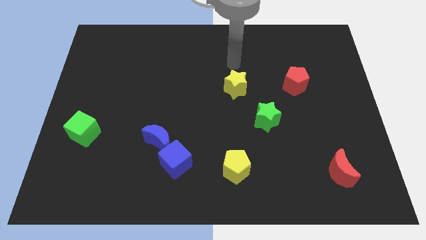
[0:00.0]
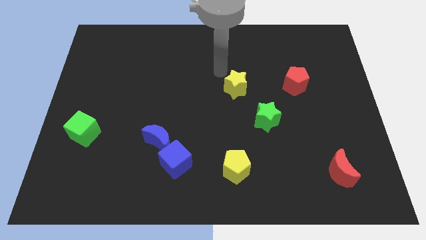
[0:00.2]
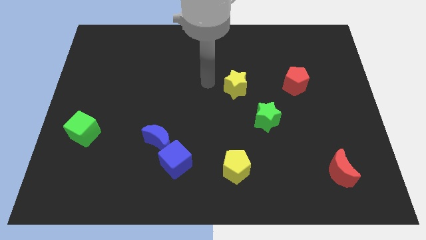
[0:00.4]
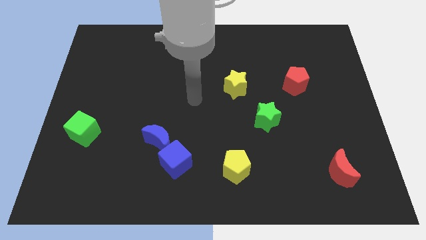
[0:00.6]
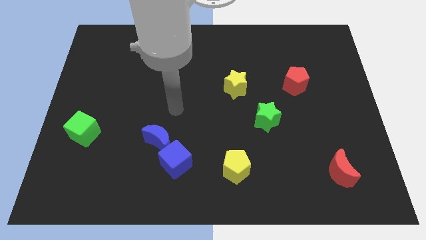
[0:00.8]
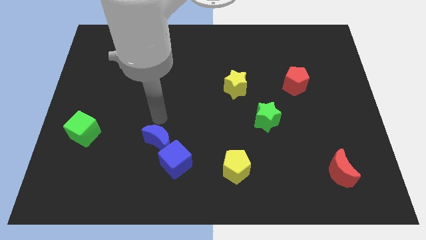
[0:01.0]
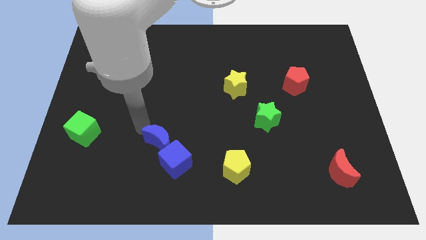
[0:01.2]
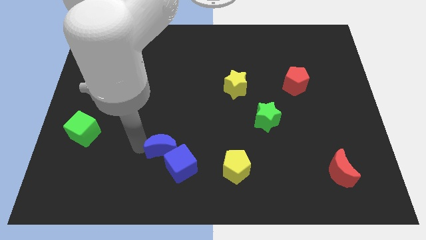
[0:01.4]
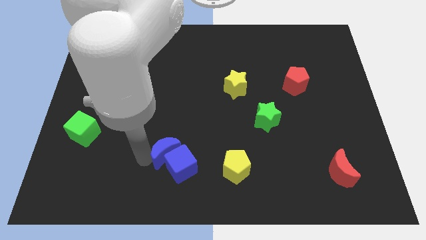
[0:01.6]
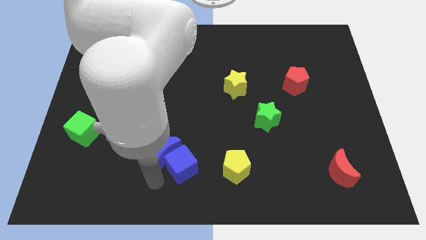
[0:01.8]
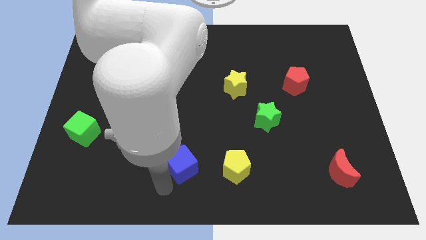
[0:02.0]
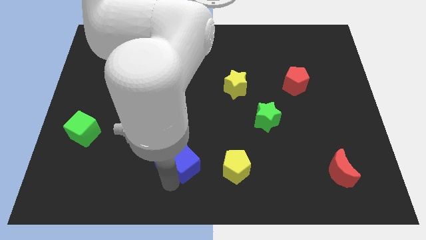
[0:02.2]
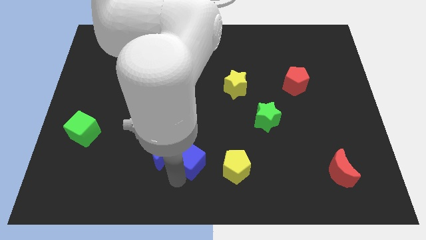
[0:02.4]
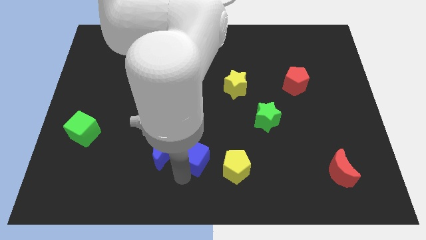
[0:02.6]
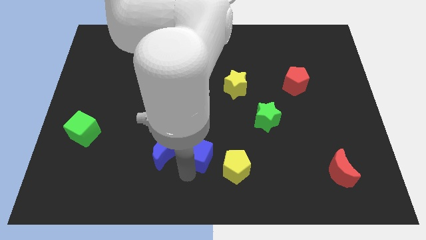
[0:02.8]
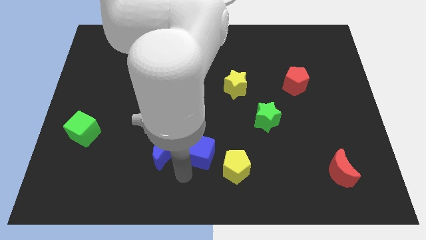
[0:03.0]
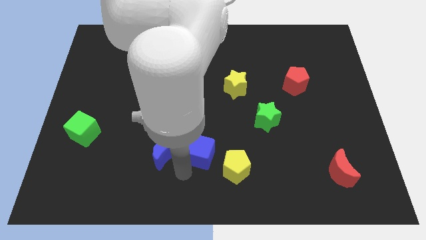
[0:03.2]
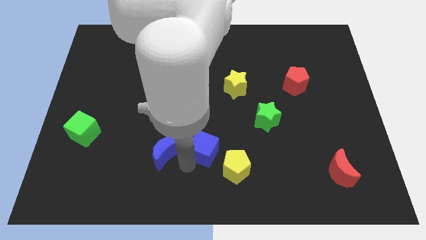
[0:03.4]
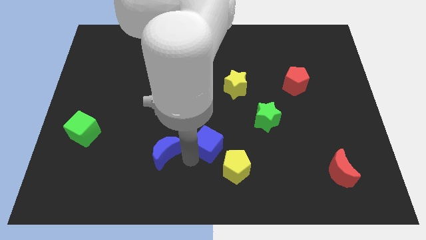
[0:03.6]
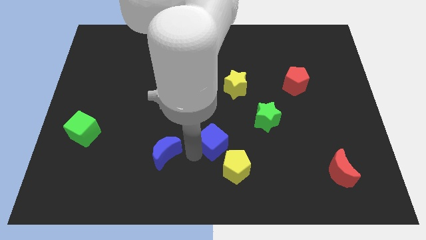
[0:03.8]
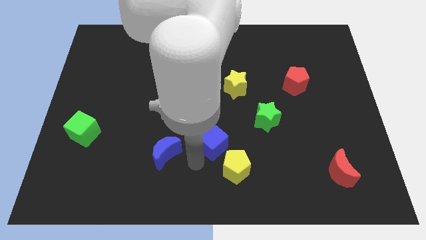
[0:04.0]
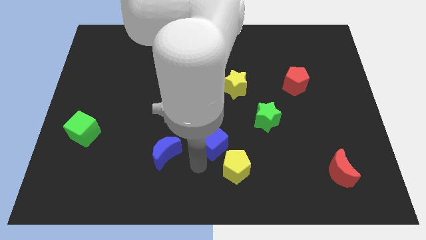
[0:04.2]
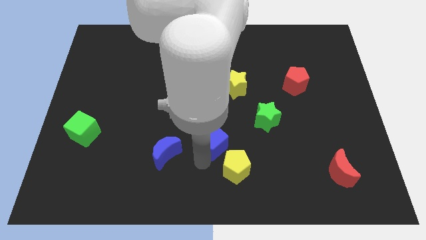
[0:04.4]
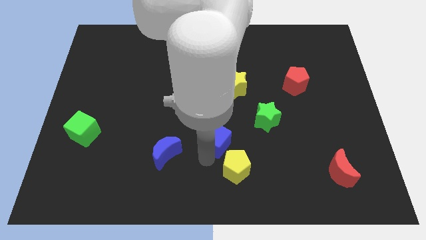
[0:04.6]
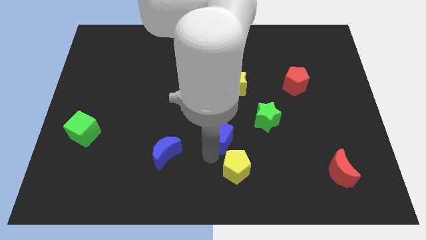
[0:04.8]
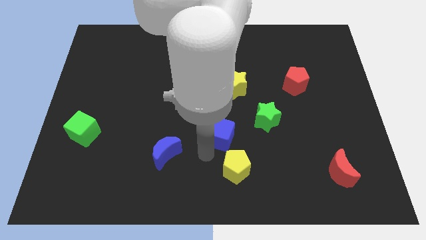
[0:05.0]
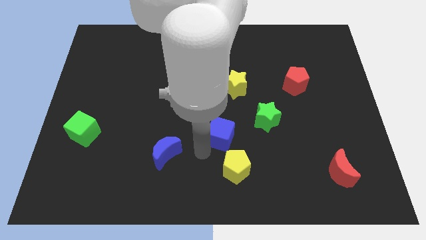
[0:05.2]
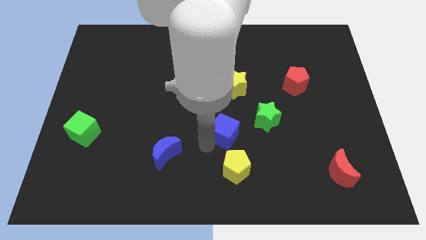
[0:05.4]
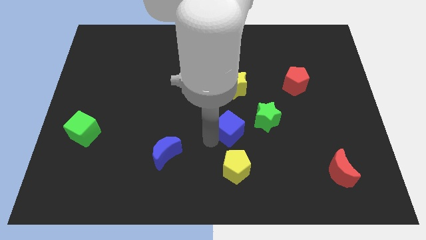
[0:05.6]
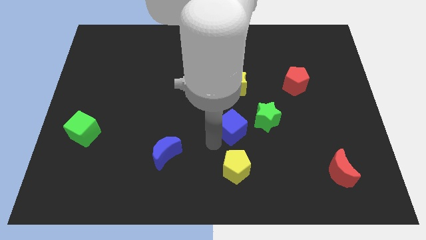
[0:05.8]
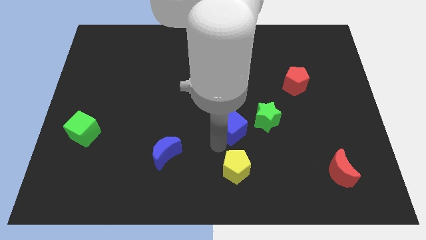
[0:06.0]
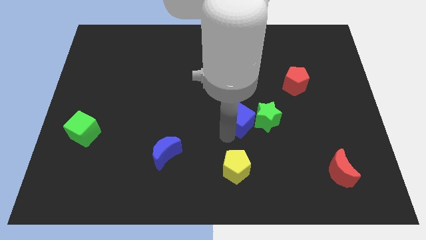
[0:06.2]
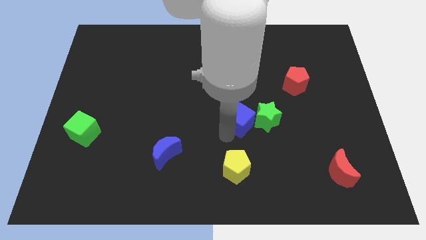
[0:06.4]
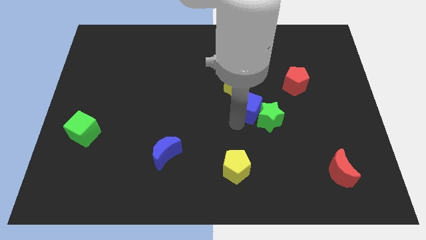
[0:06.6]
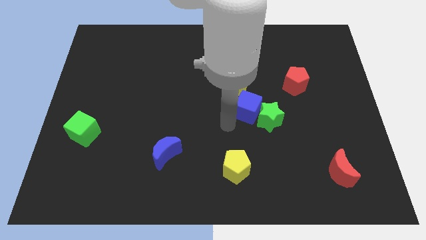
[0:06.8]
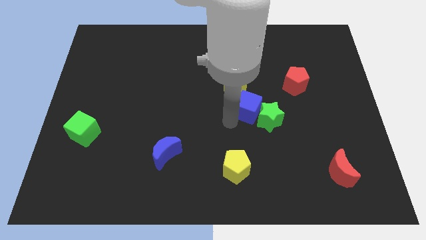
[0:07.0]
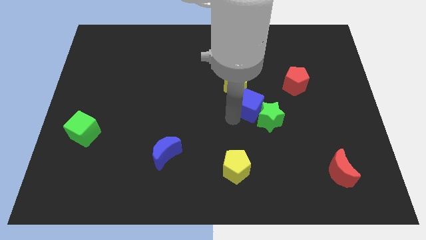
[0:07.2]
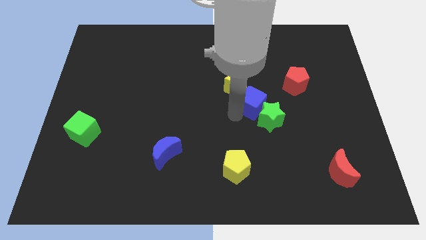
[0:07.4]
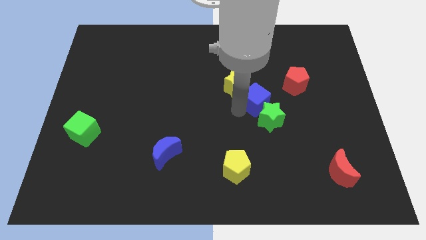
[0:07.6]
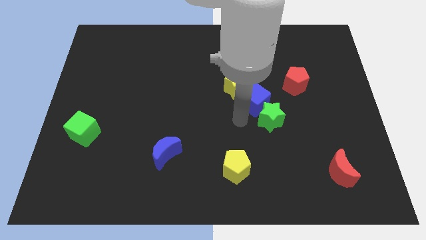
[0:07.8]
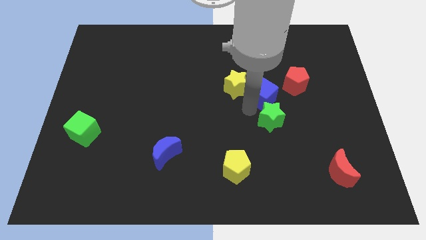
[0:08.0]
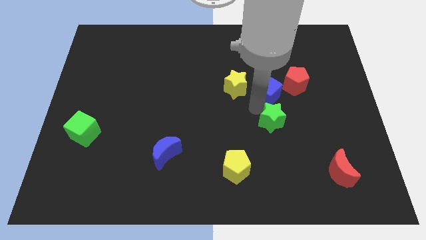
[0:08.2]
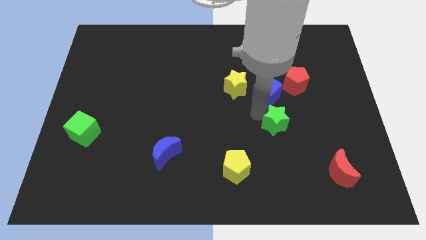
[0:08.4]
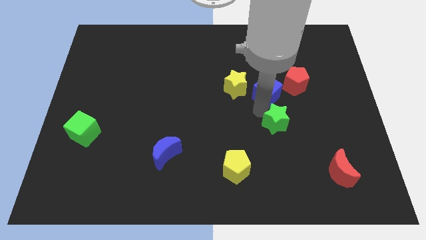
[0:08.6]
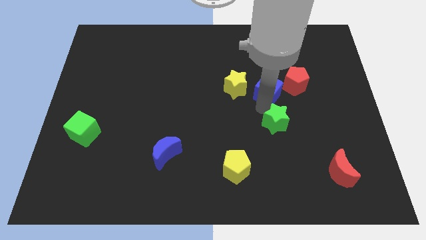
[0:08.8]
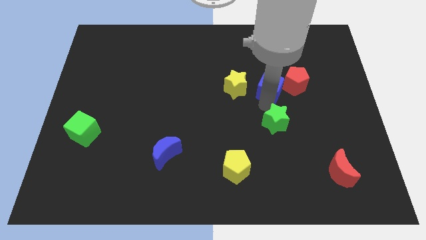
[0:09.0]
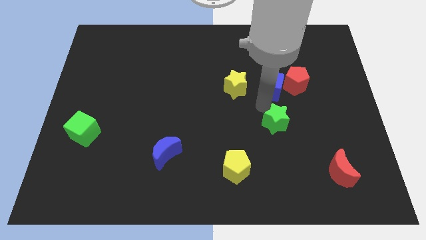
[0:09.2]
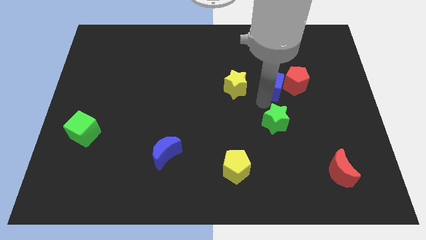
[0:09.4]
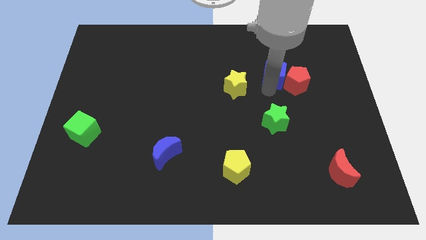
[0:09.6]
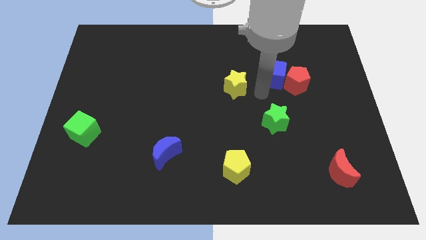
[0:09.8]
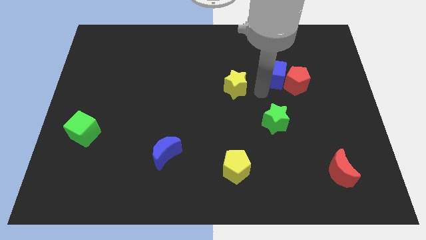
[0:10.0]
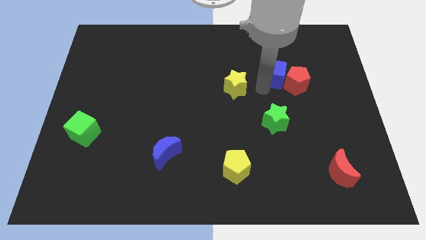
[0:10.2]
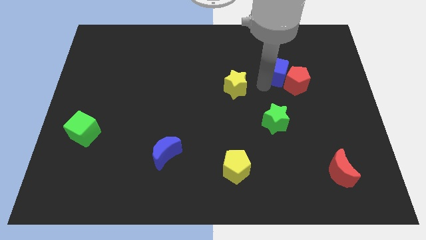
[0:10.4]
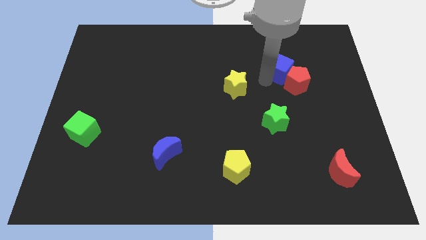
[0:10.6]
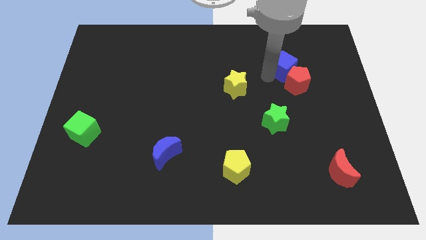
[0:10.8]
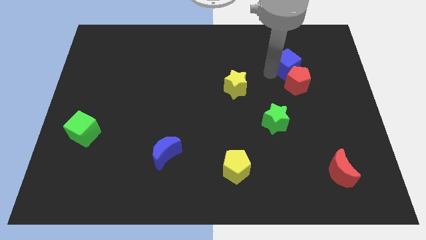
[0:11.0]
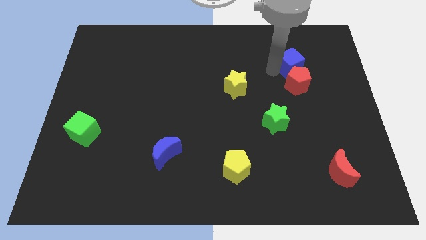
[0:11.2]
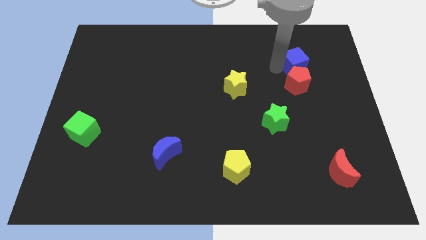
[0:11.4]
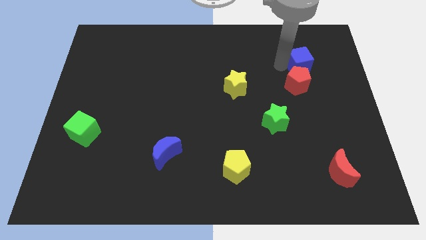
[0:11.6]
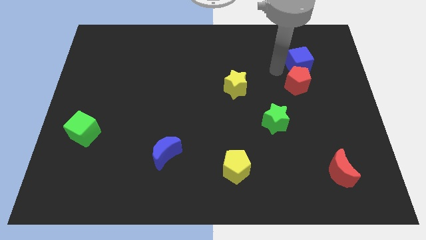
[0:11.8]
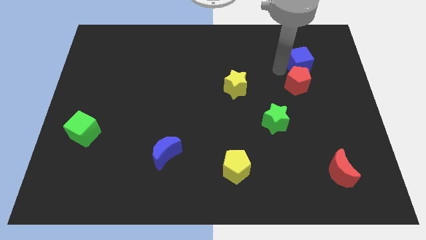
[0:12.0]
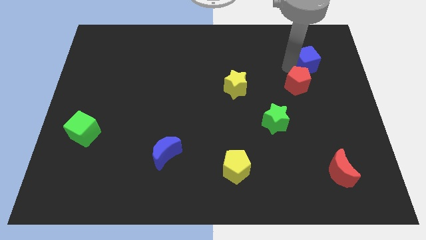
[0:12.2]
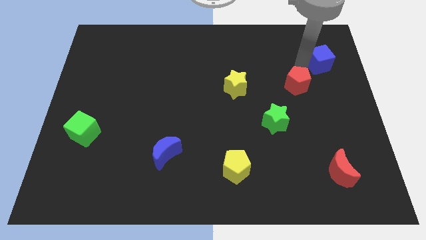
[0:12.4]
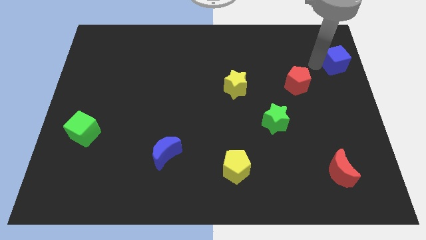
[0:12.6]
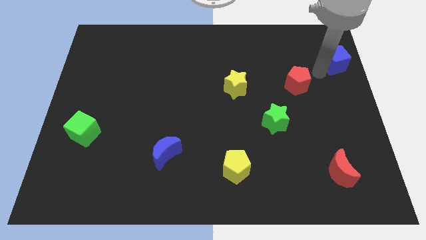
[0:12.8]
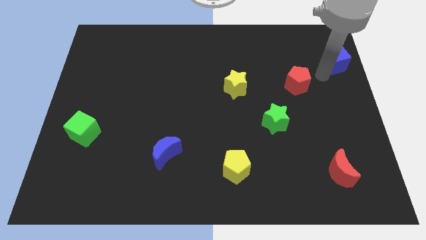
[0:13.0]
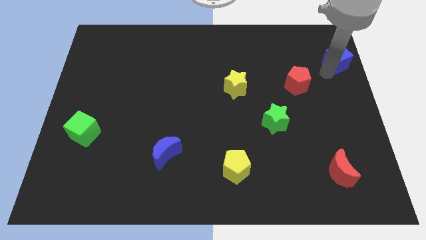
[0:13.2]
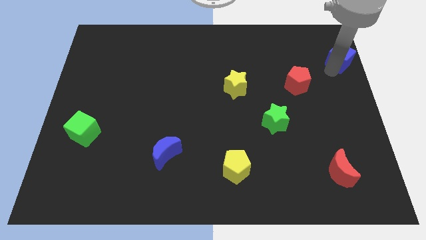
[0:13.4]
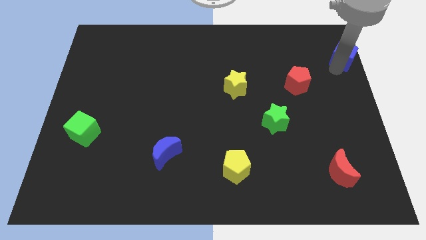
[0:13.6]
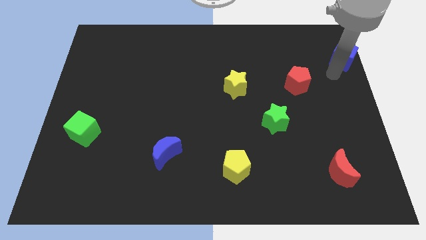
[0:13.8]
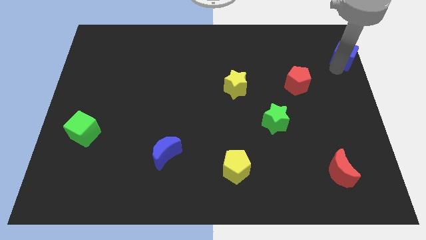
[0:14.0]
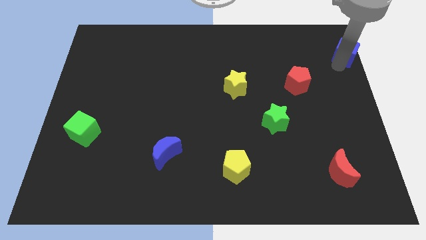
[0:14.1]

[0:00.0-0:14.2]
move the blue cube to the top right corner
